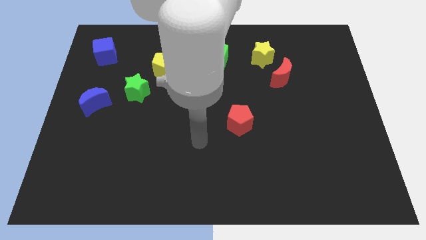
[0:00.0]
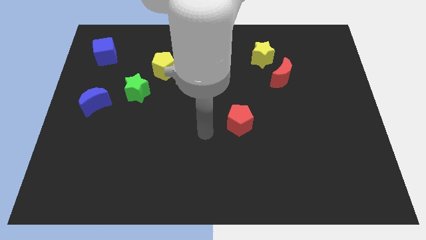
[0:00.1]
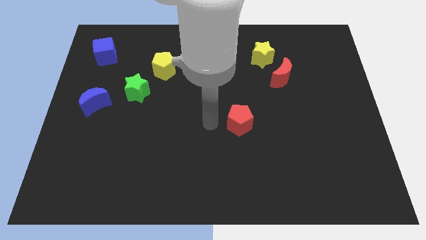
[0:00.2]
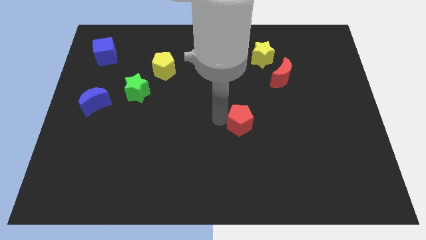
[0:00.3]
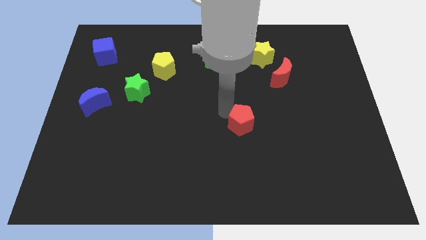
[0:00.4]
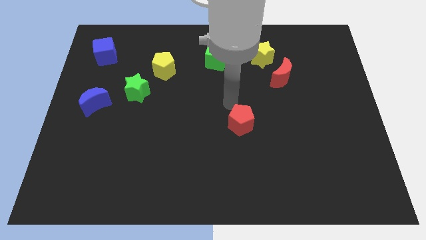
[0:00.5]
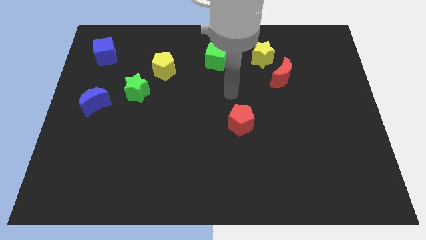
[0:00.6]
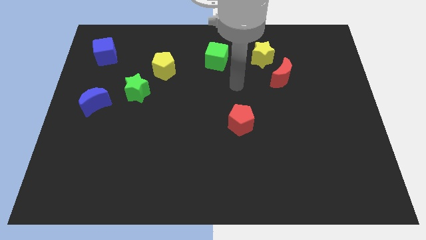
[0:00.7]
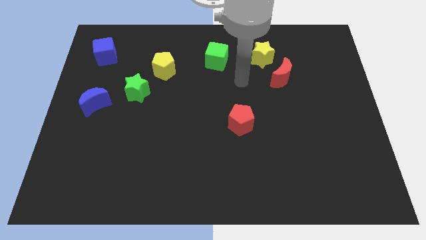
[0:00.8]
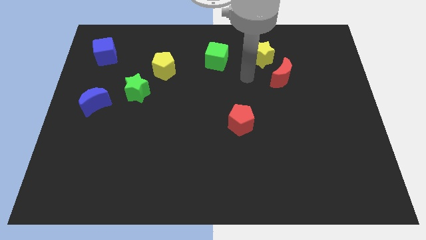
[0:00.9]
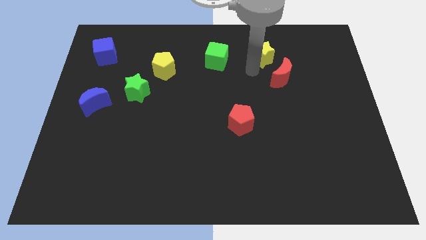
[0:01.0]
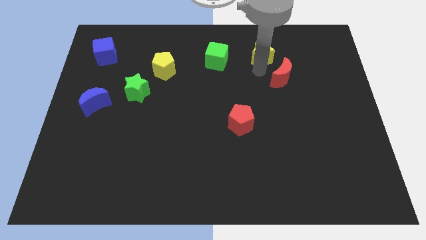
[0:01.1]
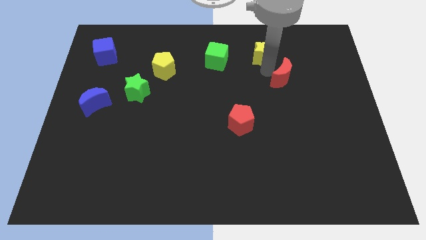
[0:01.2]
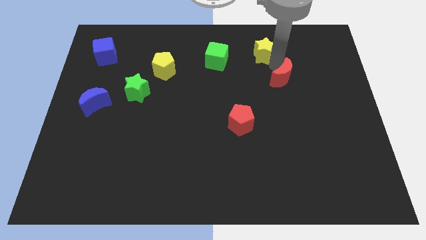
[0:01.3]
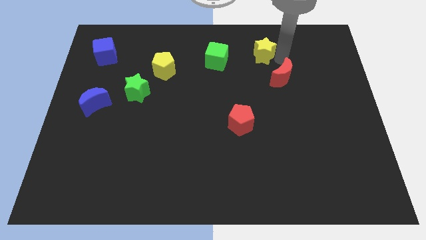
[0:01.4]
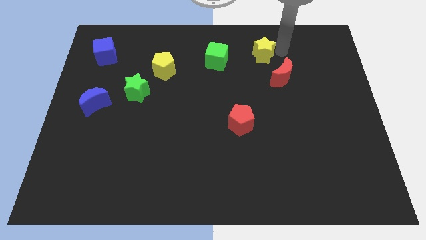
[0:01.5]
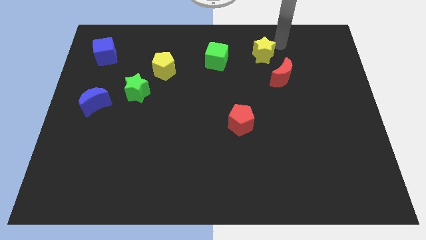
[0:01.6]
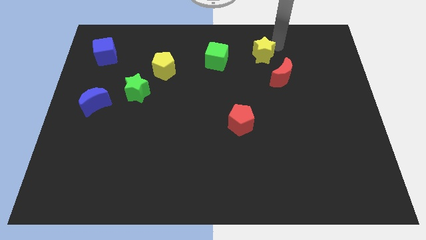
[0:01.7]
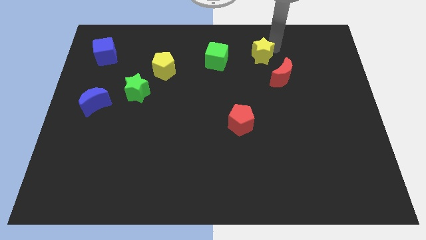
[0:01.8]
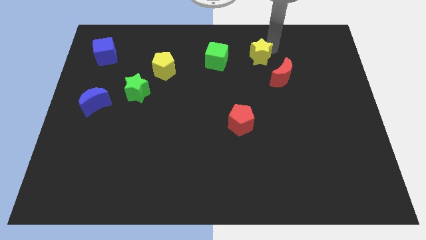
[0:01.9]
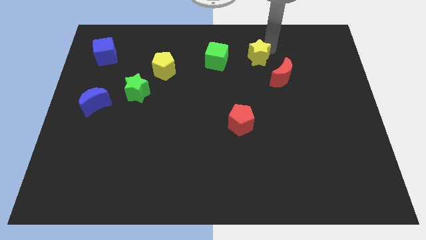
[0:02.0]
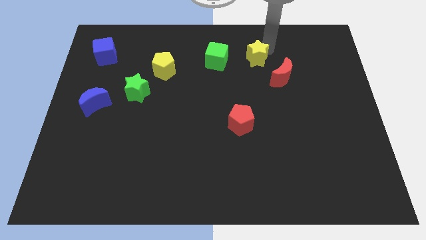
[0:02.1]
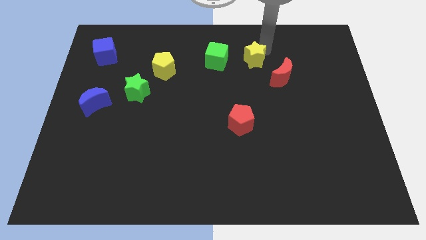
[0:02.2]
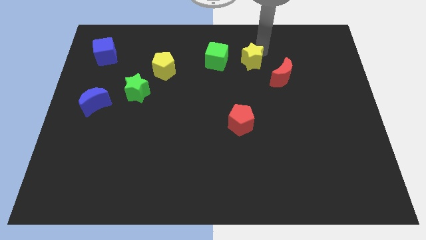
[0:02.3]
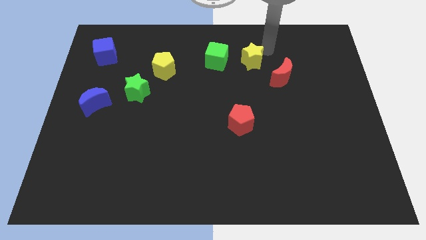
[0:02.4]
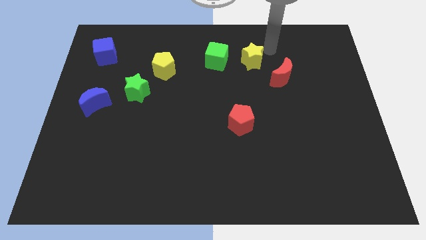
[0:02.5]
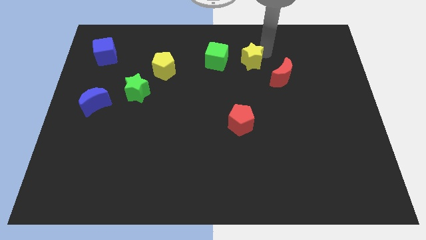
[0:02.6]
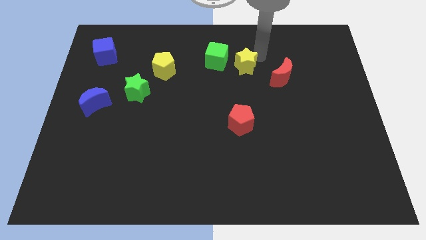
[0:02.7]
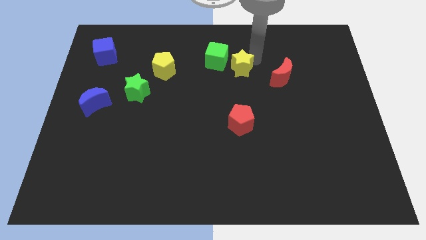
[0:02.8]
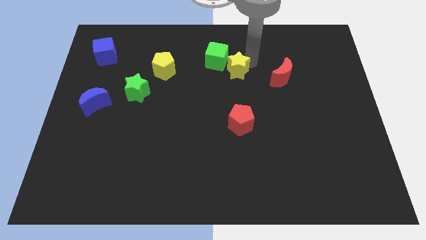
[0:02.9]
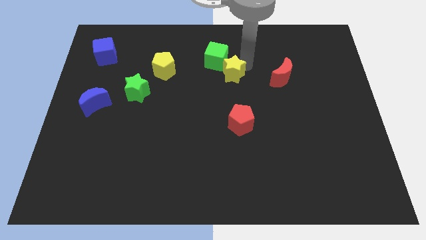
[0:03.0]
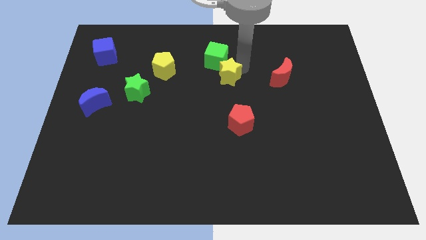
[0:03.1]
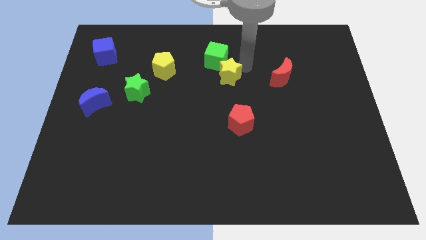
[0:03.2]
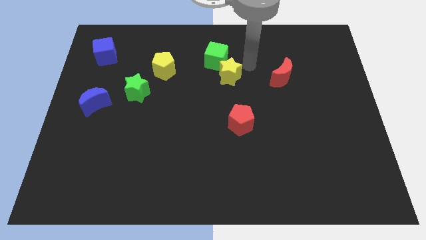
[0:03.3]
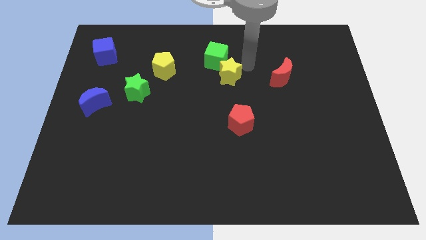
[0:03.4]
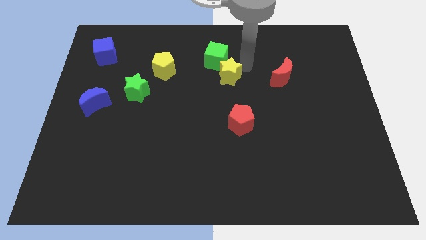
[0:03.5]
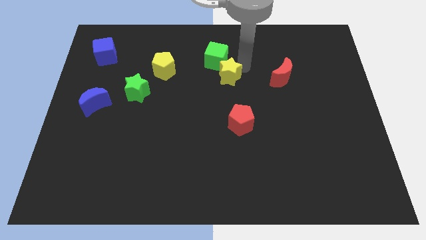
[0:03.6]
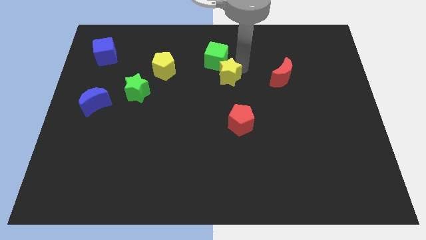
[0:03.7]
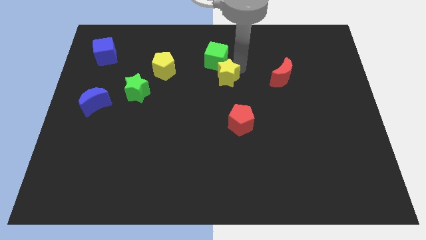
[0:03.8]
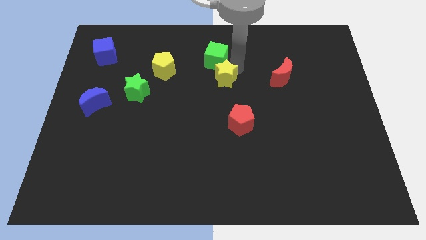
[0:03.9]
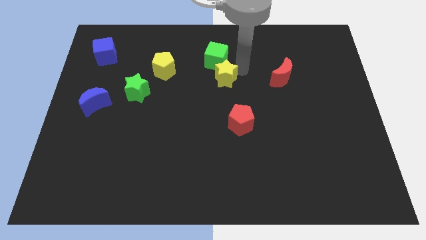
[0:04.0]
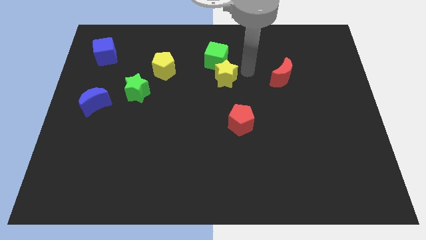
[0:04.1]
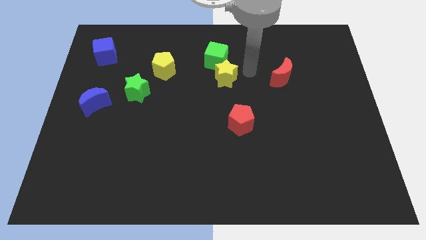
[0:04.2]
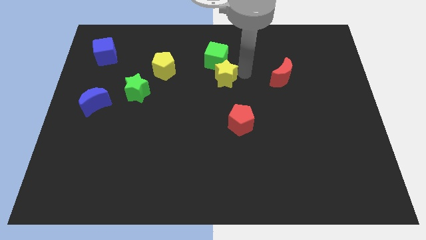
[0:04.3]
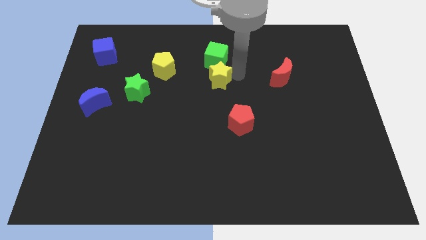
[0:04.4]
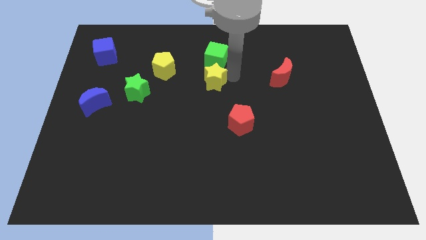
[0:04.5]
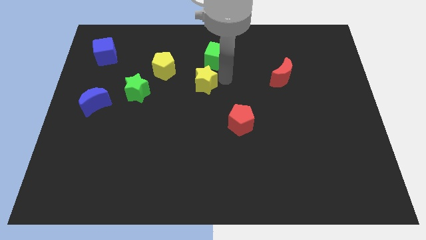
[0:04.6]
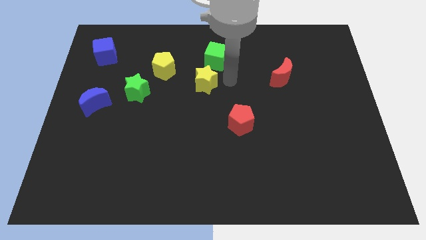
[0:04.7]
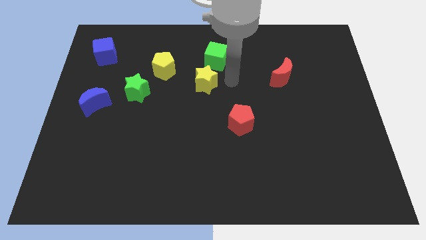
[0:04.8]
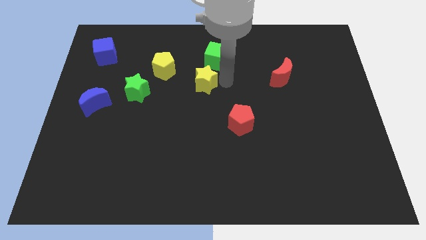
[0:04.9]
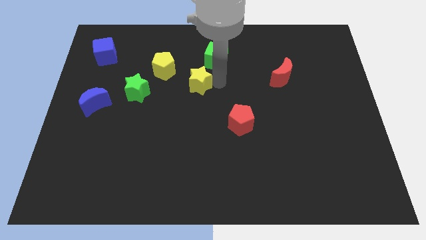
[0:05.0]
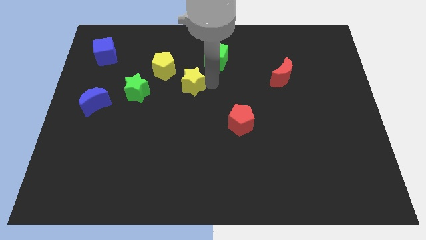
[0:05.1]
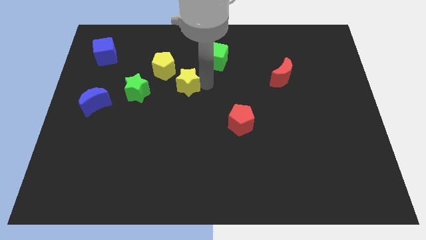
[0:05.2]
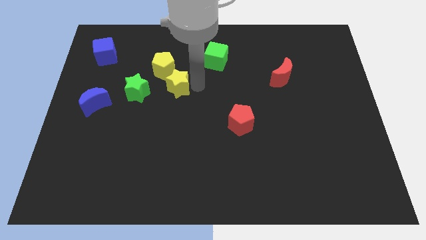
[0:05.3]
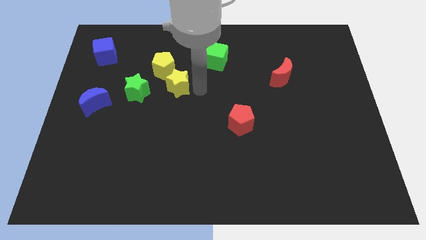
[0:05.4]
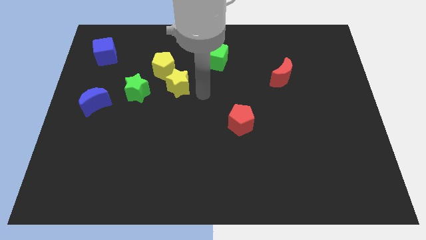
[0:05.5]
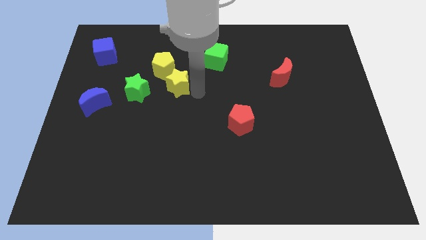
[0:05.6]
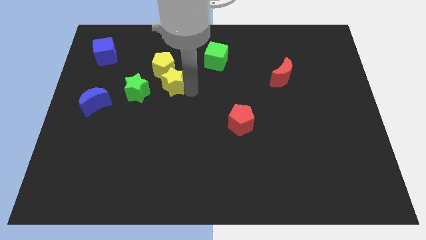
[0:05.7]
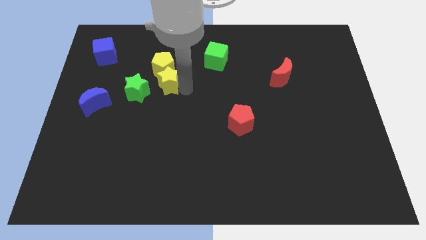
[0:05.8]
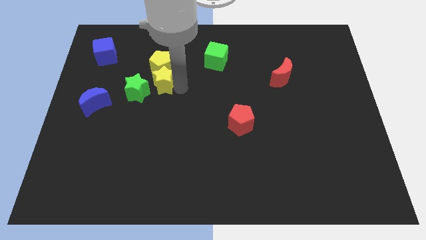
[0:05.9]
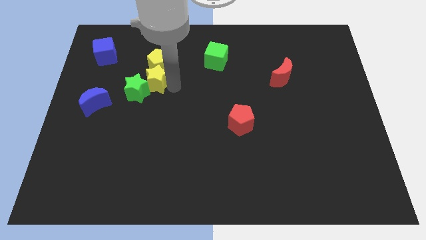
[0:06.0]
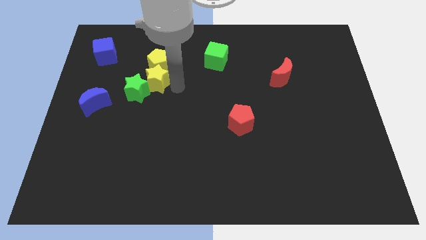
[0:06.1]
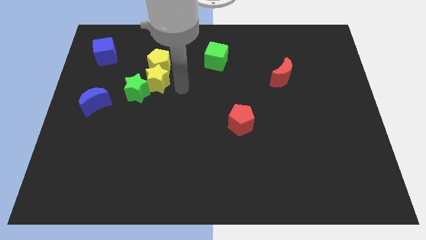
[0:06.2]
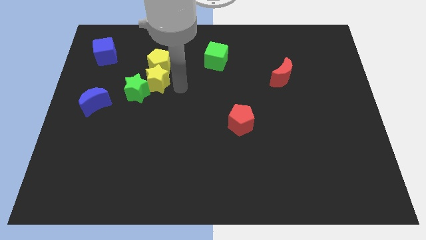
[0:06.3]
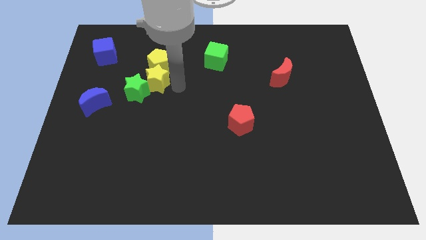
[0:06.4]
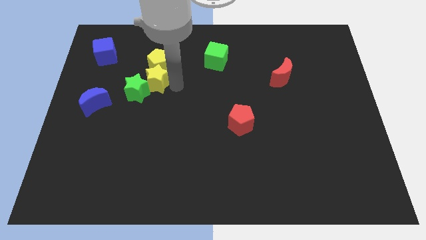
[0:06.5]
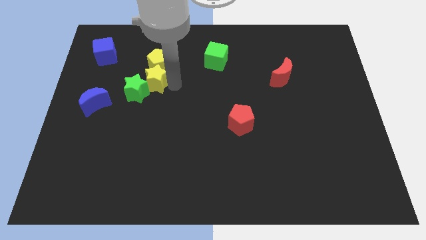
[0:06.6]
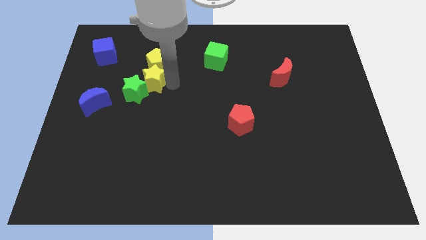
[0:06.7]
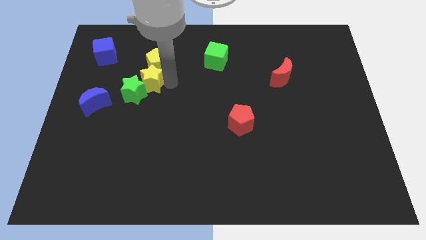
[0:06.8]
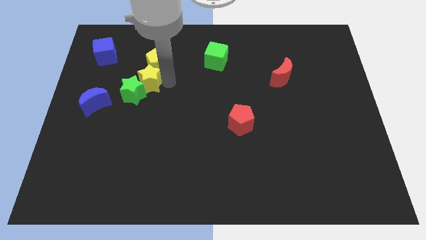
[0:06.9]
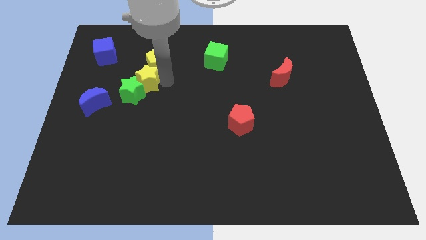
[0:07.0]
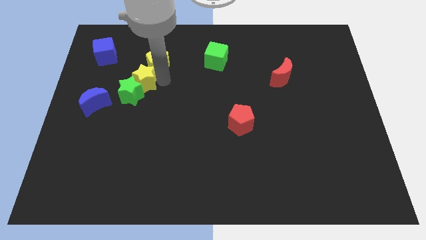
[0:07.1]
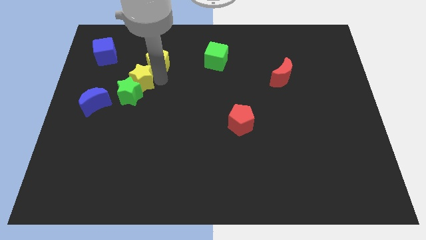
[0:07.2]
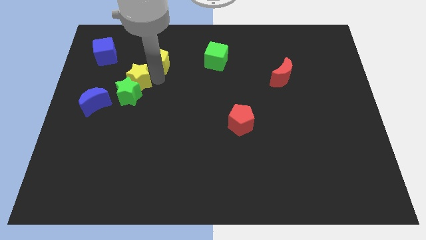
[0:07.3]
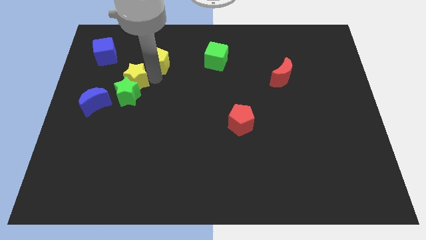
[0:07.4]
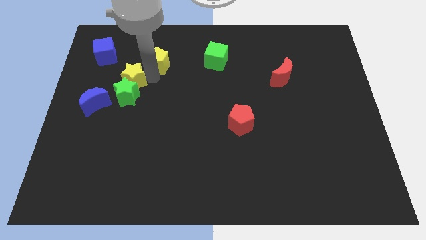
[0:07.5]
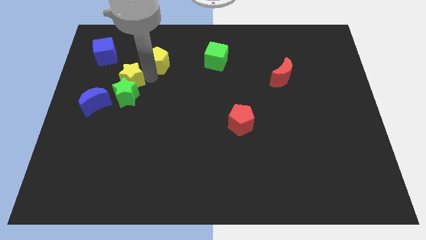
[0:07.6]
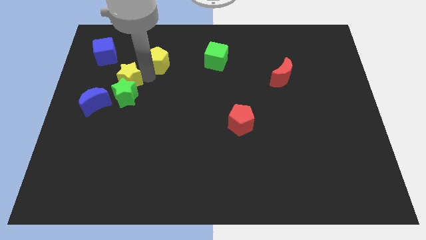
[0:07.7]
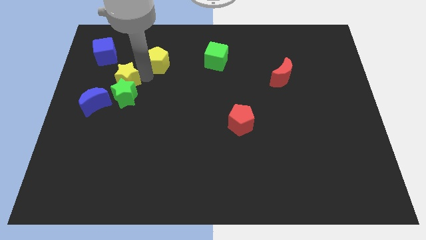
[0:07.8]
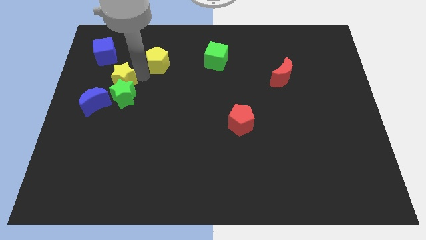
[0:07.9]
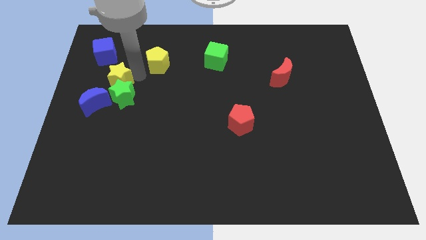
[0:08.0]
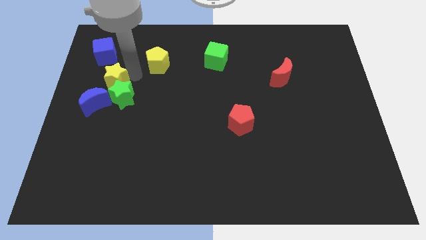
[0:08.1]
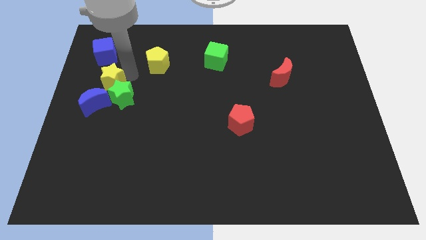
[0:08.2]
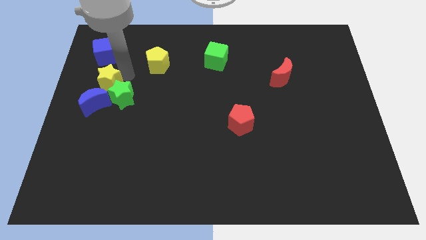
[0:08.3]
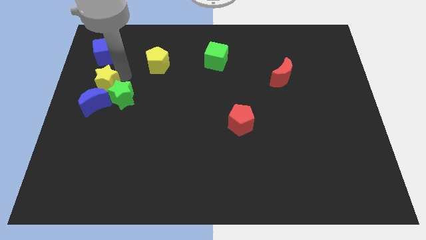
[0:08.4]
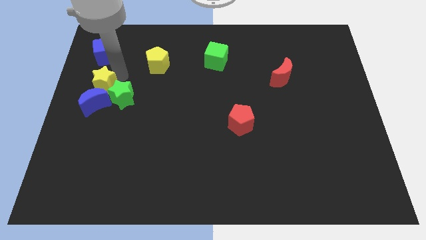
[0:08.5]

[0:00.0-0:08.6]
slide the yellow star close to the blue moon
